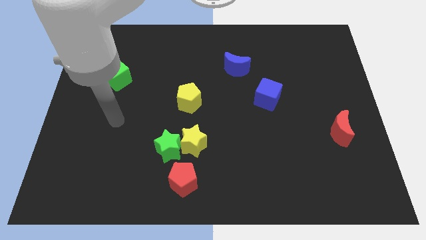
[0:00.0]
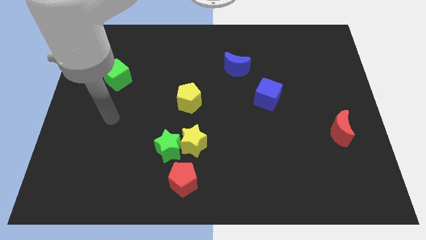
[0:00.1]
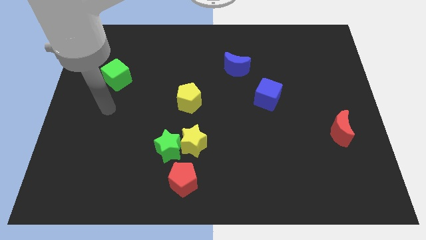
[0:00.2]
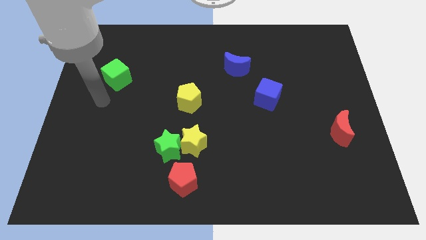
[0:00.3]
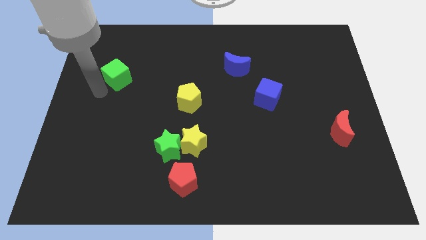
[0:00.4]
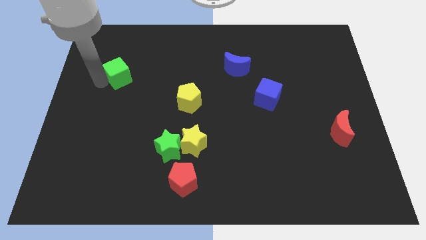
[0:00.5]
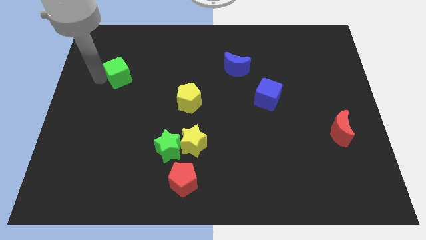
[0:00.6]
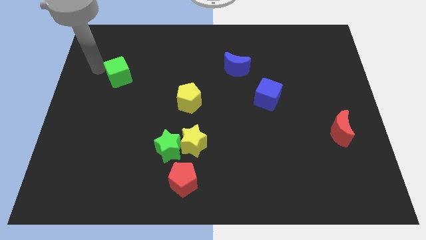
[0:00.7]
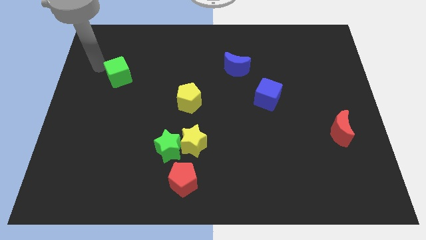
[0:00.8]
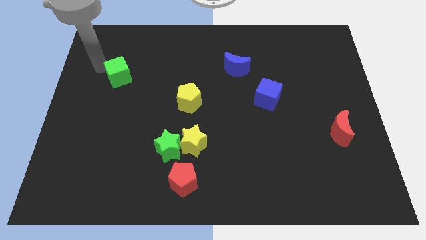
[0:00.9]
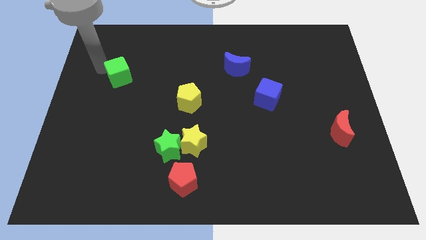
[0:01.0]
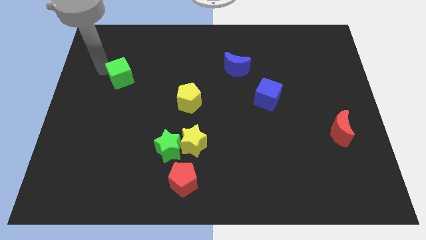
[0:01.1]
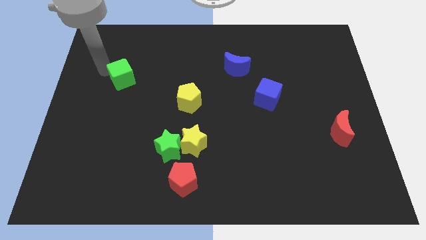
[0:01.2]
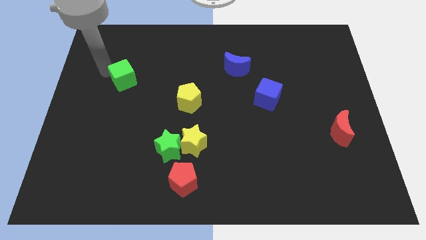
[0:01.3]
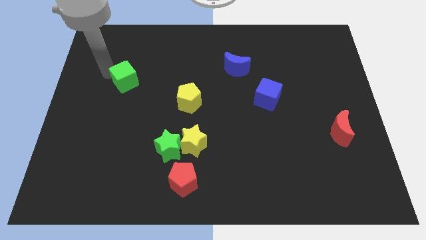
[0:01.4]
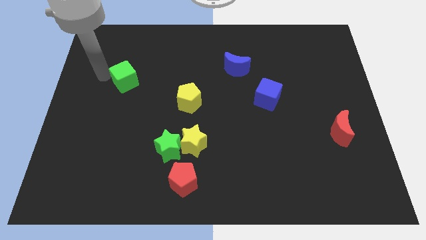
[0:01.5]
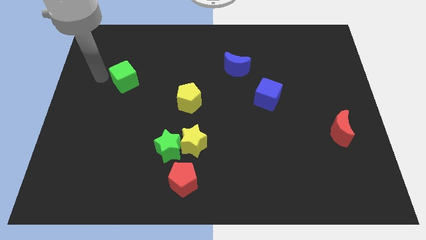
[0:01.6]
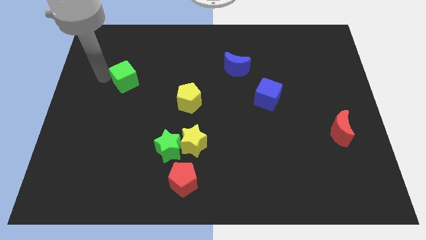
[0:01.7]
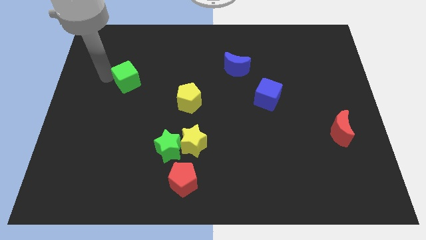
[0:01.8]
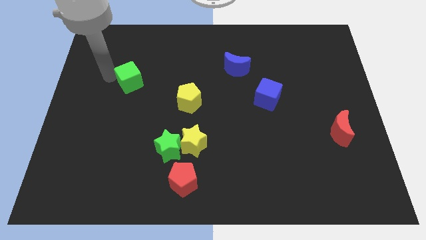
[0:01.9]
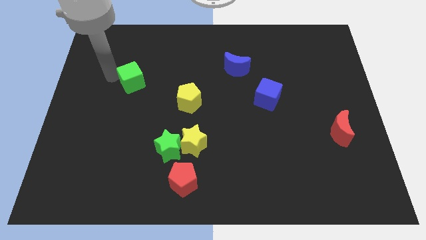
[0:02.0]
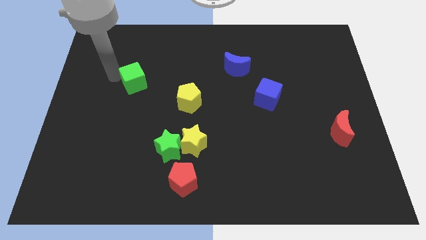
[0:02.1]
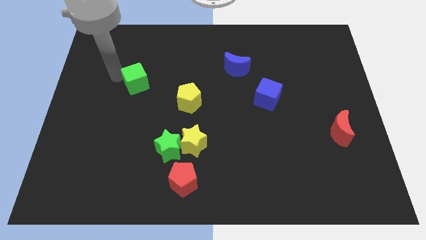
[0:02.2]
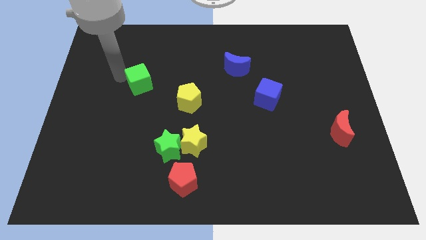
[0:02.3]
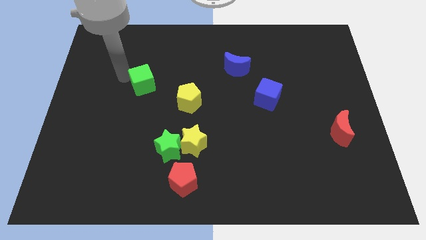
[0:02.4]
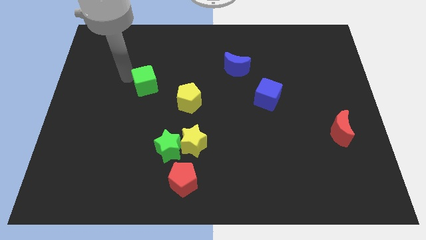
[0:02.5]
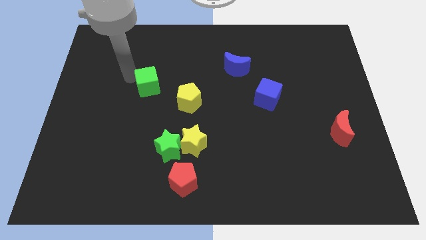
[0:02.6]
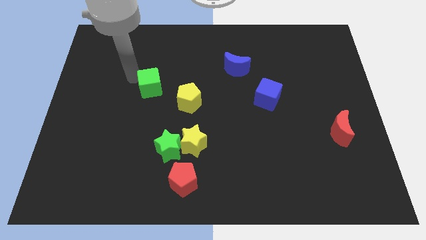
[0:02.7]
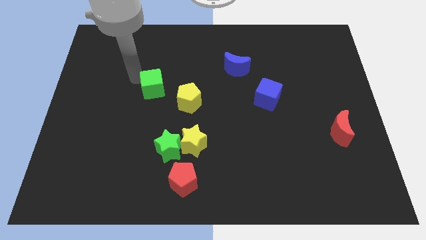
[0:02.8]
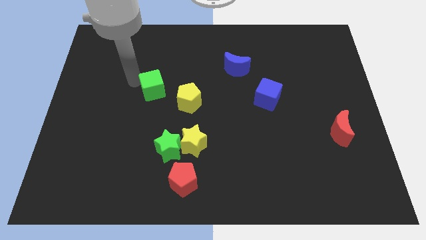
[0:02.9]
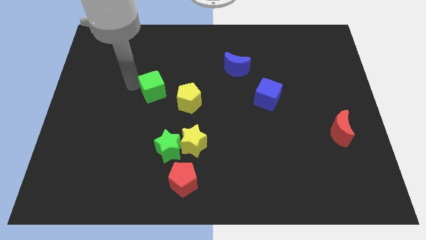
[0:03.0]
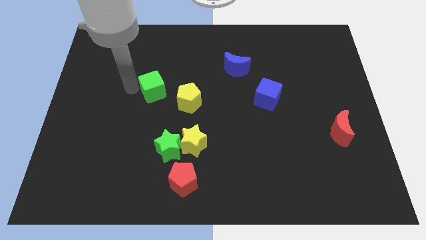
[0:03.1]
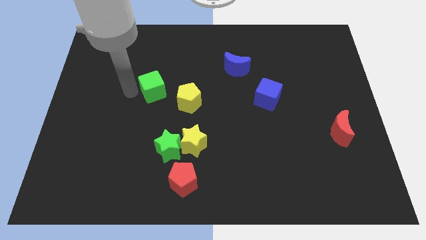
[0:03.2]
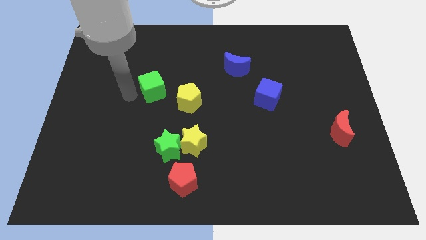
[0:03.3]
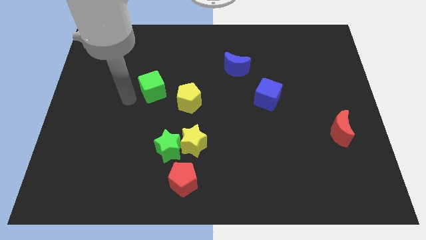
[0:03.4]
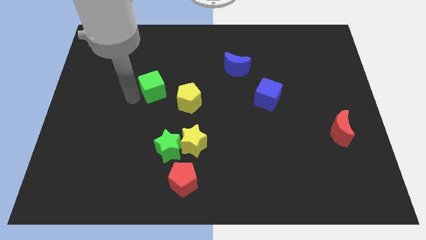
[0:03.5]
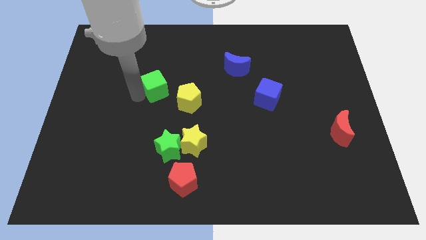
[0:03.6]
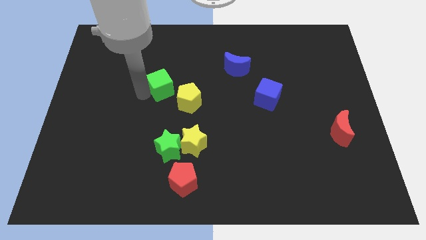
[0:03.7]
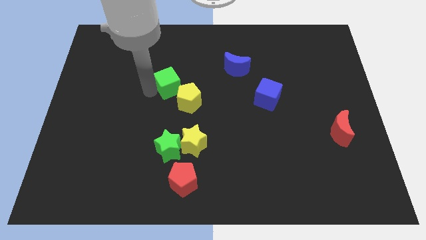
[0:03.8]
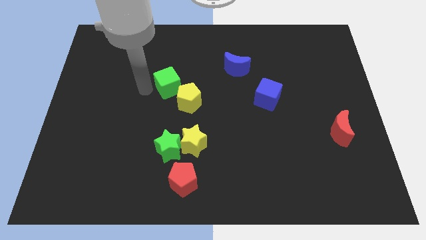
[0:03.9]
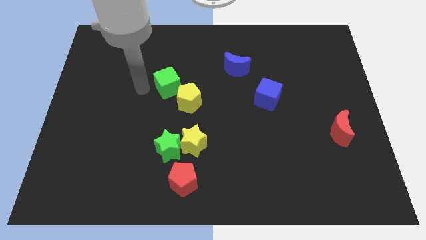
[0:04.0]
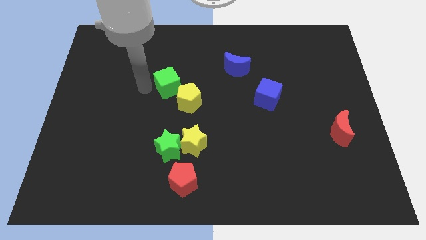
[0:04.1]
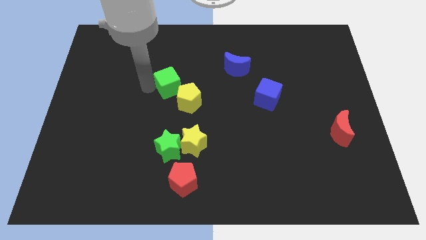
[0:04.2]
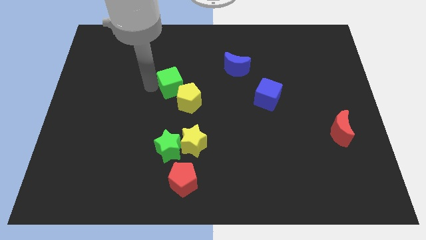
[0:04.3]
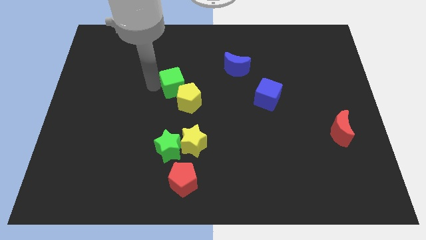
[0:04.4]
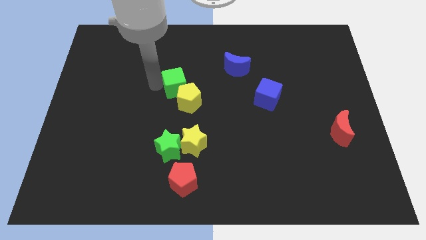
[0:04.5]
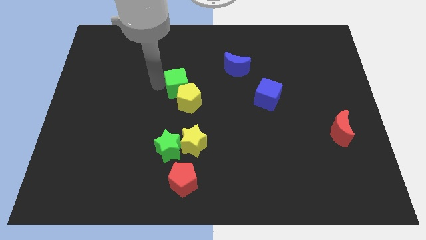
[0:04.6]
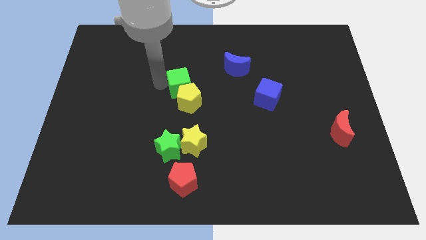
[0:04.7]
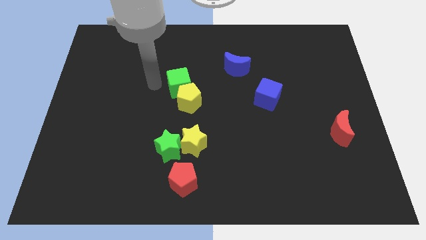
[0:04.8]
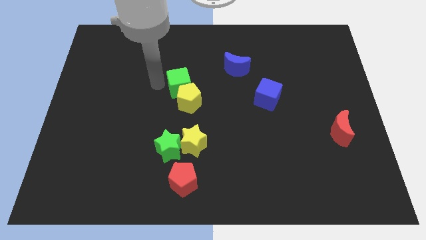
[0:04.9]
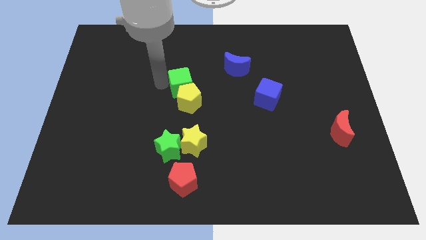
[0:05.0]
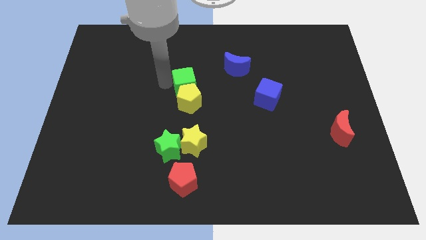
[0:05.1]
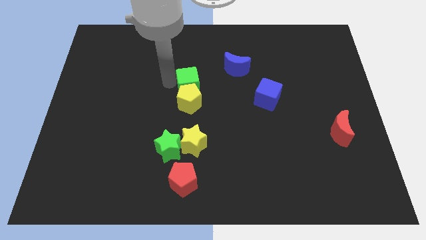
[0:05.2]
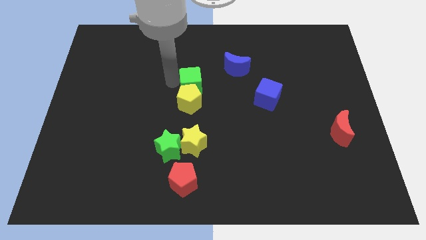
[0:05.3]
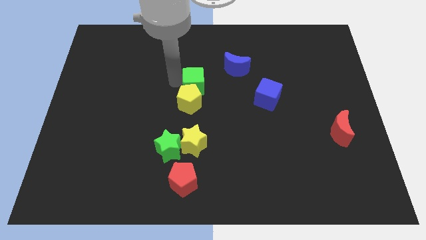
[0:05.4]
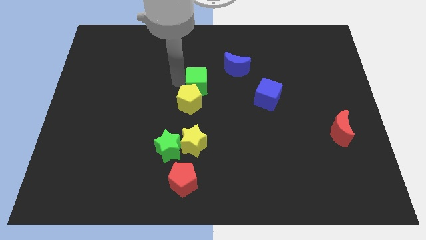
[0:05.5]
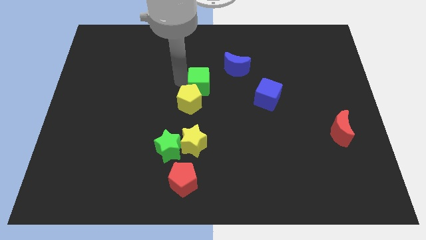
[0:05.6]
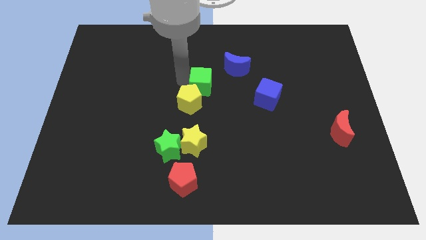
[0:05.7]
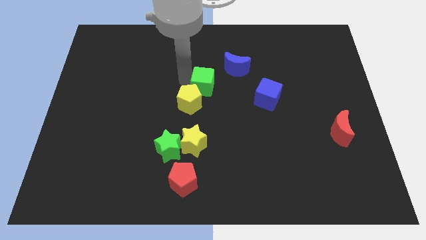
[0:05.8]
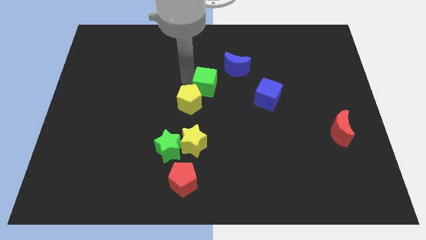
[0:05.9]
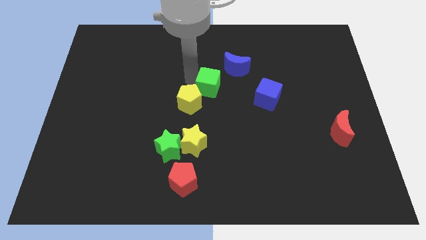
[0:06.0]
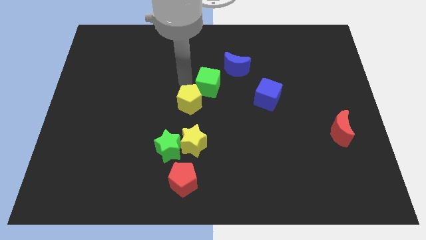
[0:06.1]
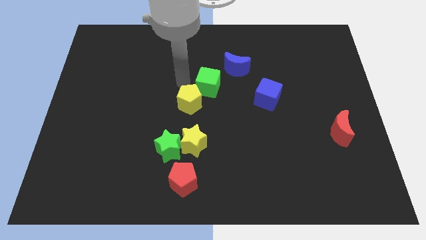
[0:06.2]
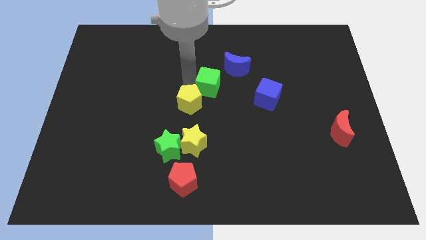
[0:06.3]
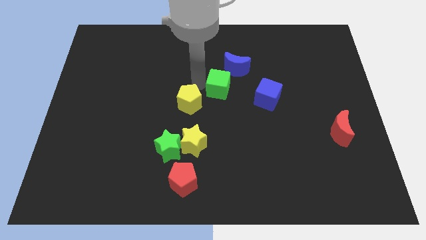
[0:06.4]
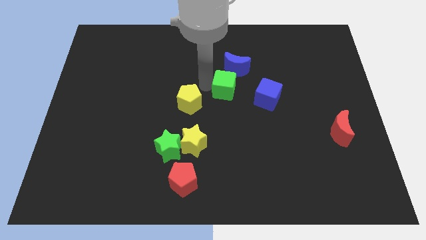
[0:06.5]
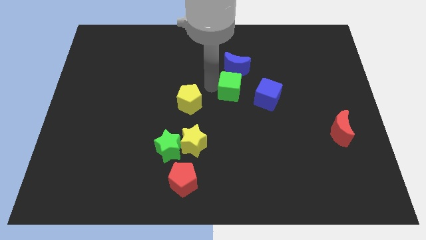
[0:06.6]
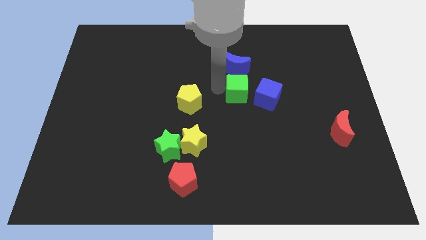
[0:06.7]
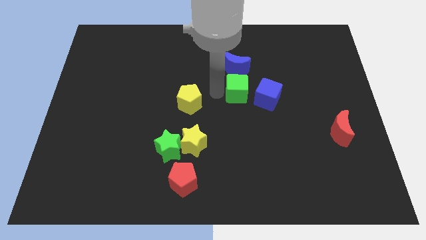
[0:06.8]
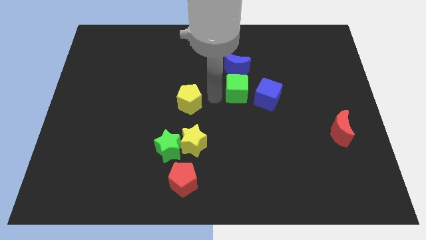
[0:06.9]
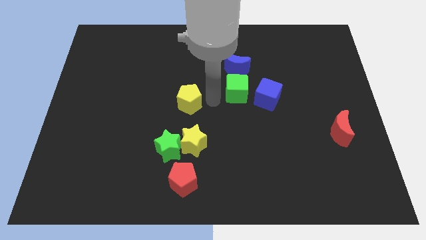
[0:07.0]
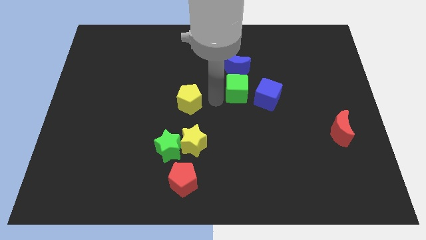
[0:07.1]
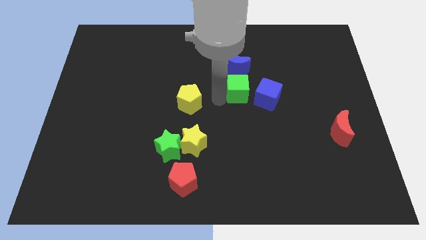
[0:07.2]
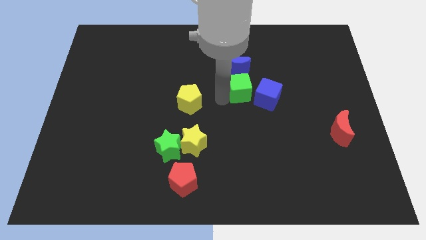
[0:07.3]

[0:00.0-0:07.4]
push the green cube diagonally down and to the right of the blue moon
